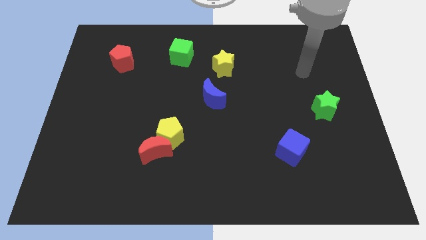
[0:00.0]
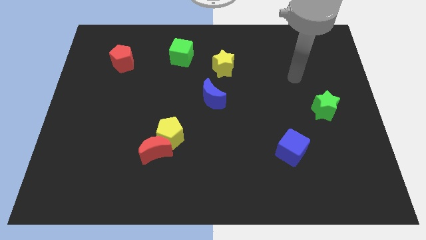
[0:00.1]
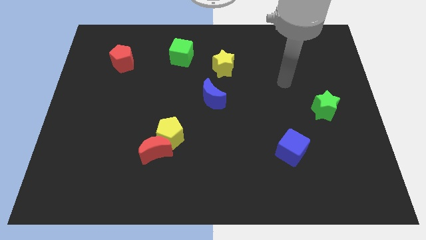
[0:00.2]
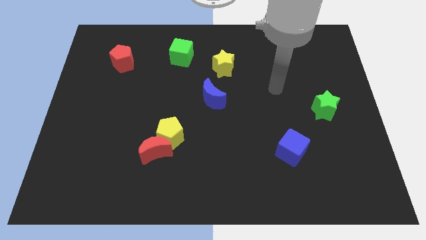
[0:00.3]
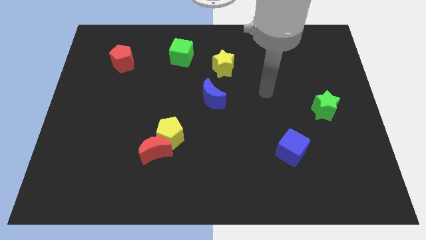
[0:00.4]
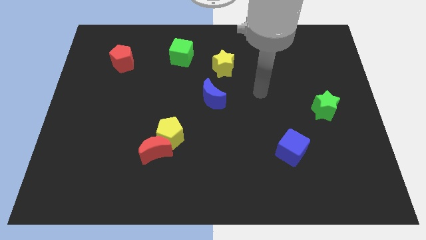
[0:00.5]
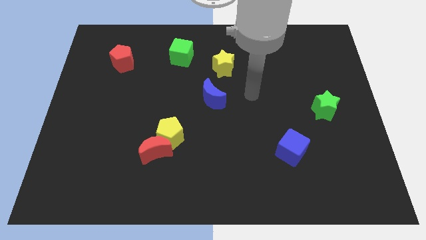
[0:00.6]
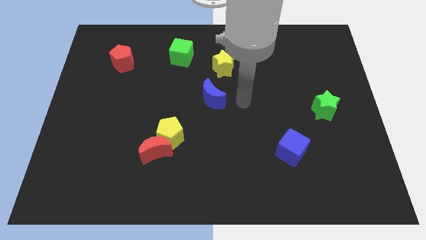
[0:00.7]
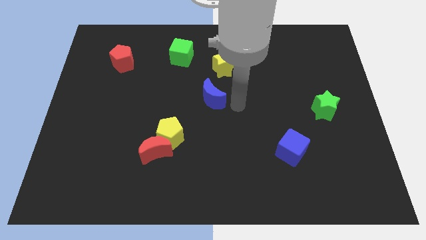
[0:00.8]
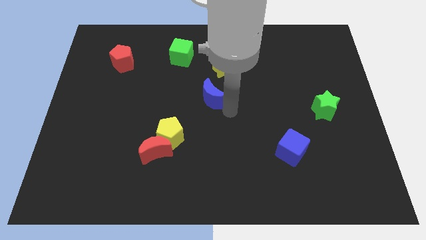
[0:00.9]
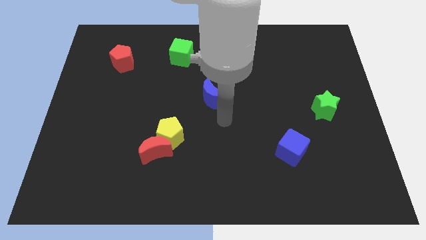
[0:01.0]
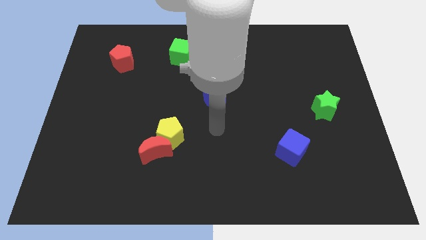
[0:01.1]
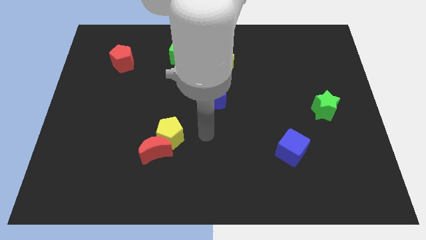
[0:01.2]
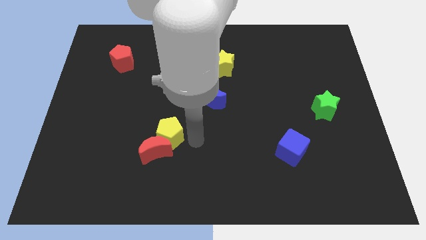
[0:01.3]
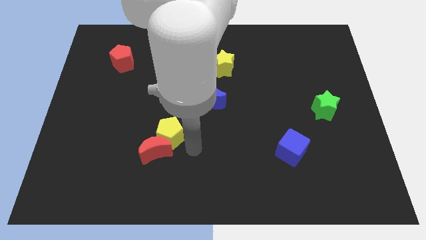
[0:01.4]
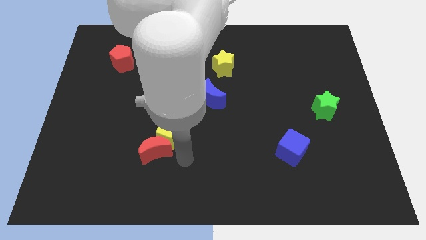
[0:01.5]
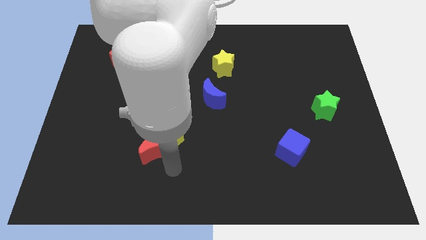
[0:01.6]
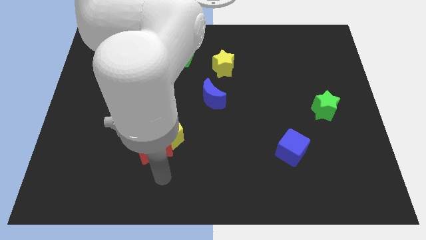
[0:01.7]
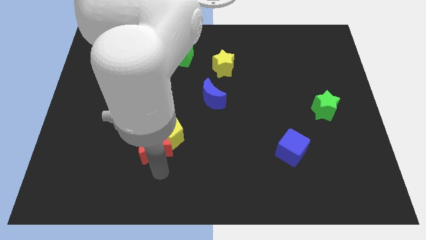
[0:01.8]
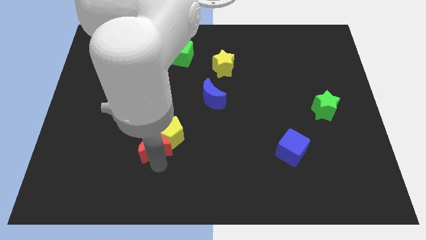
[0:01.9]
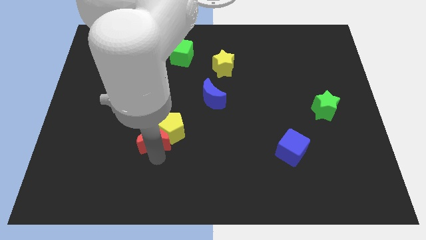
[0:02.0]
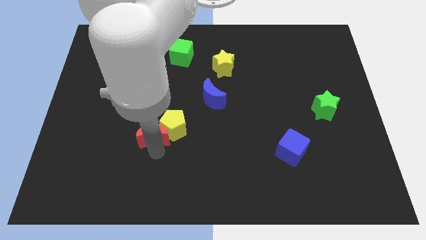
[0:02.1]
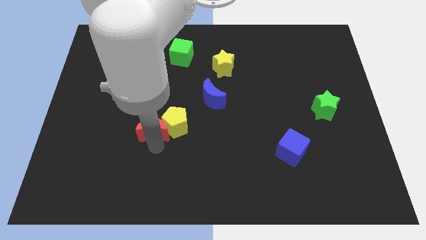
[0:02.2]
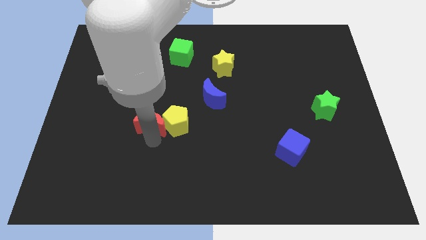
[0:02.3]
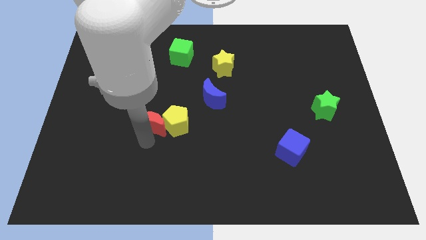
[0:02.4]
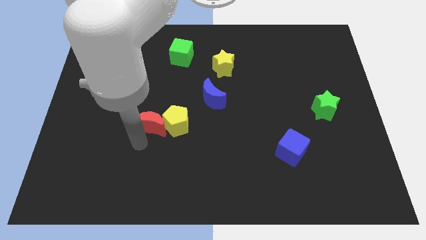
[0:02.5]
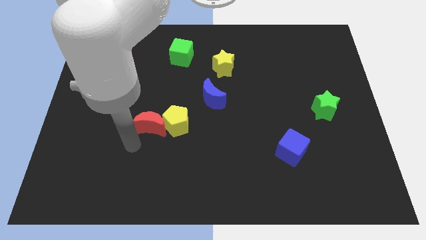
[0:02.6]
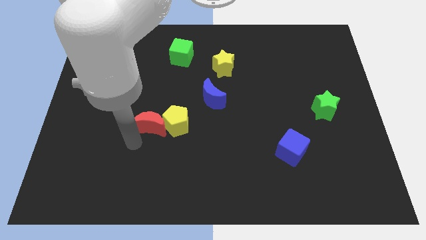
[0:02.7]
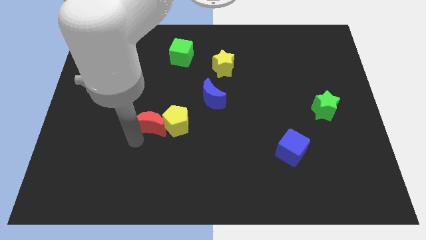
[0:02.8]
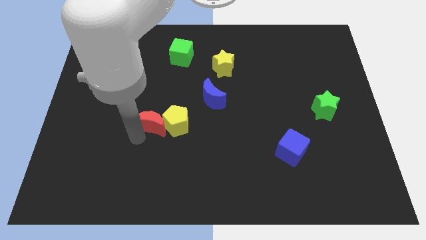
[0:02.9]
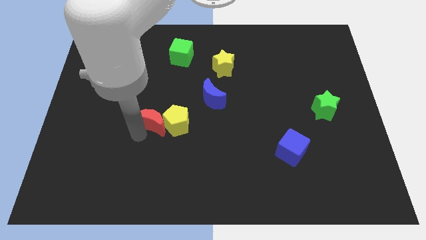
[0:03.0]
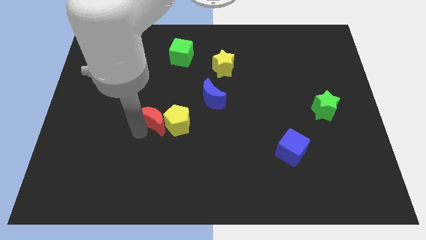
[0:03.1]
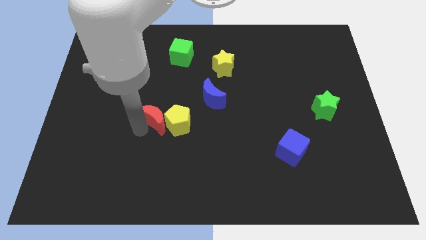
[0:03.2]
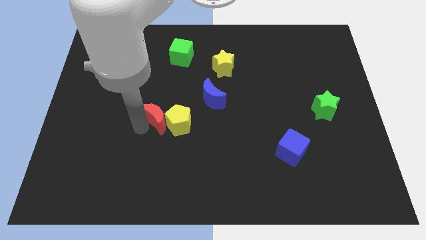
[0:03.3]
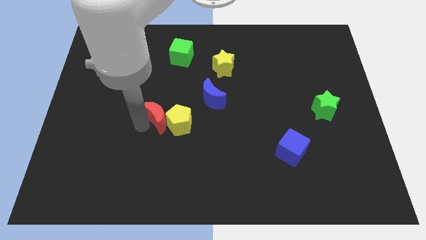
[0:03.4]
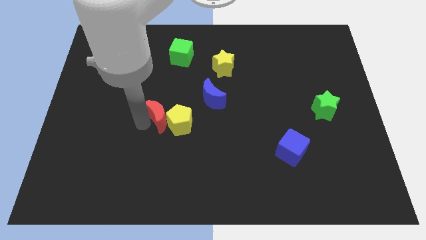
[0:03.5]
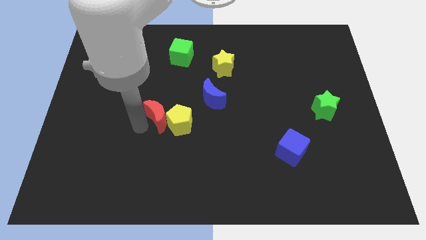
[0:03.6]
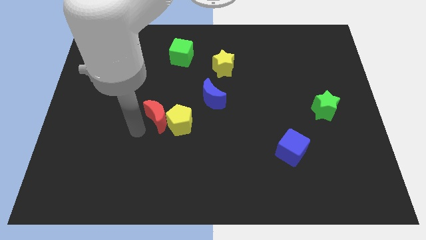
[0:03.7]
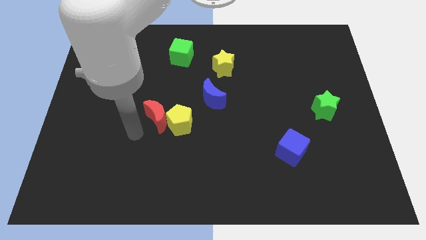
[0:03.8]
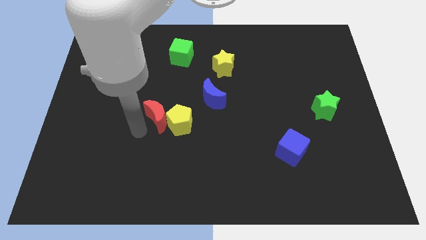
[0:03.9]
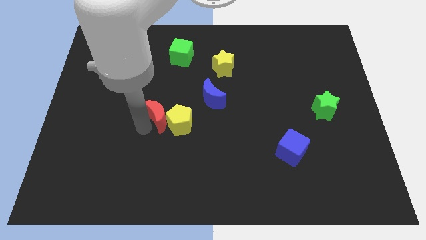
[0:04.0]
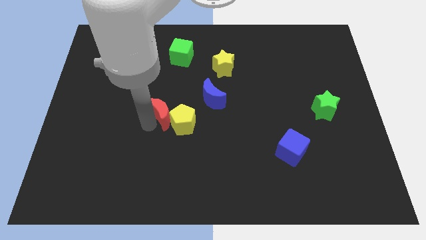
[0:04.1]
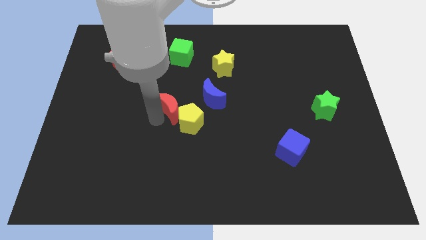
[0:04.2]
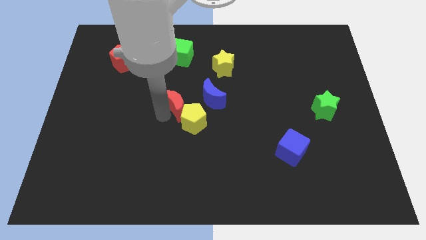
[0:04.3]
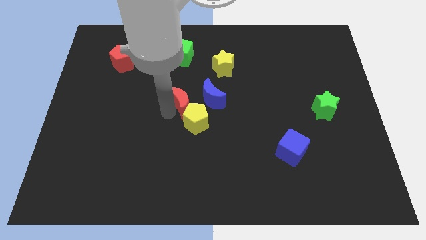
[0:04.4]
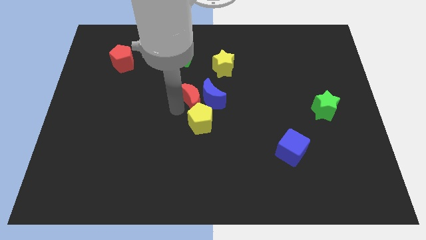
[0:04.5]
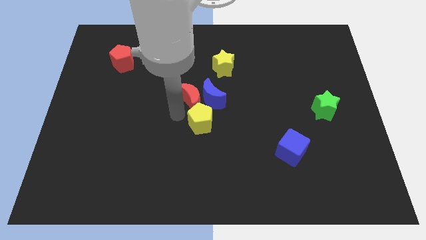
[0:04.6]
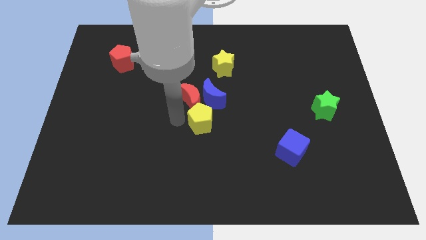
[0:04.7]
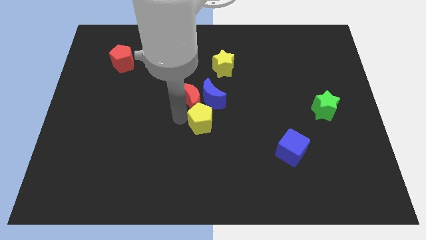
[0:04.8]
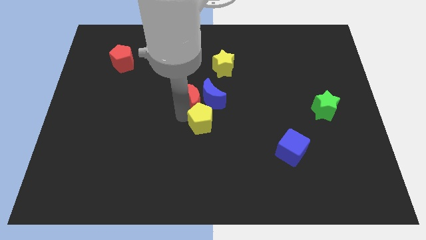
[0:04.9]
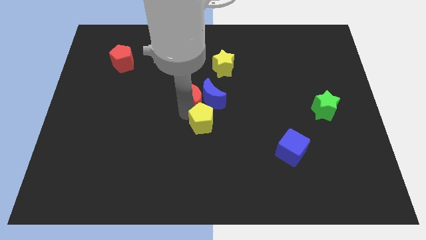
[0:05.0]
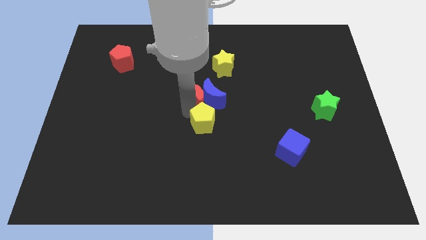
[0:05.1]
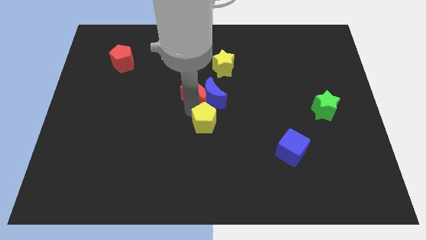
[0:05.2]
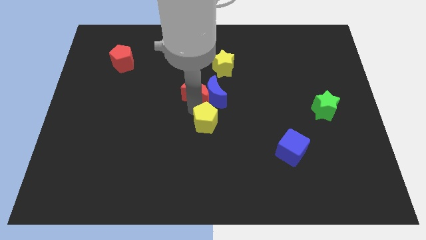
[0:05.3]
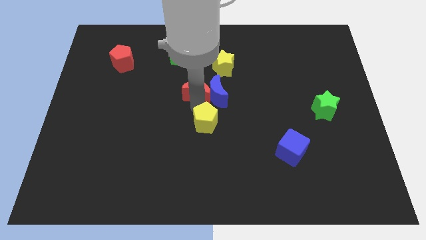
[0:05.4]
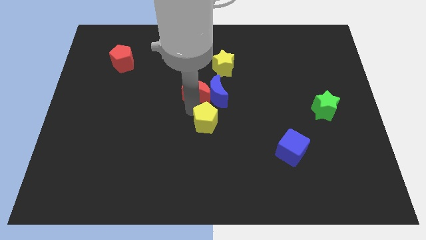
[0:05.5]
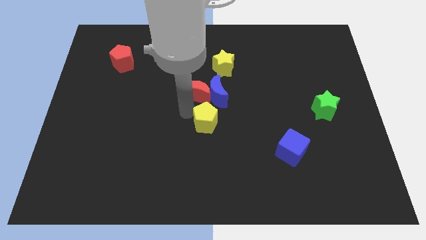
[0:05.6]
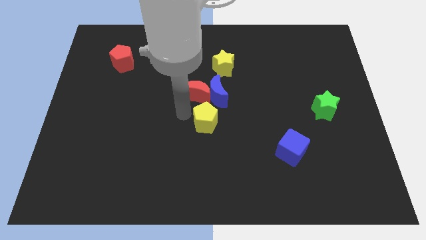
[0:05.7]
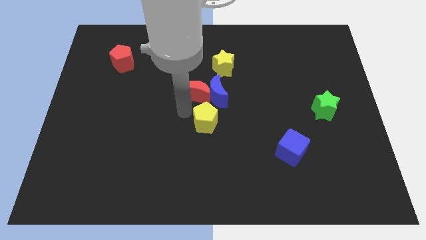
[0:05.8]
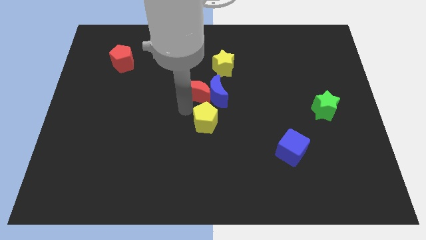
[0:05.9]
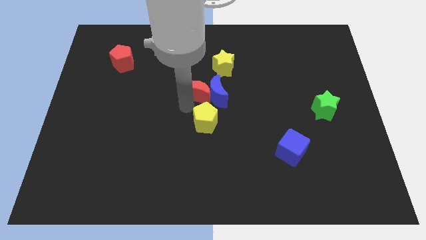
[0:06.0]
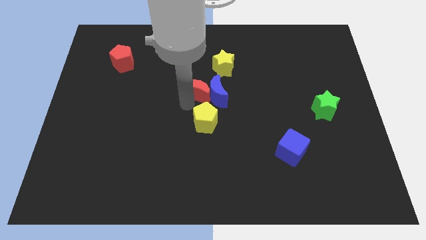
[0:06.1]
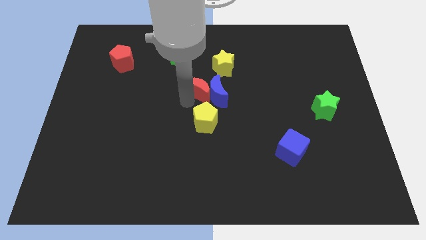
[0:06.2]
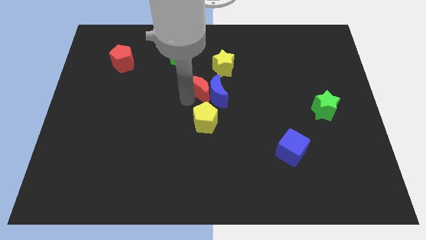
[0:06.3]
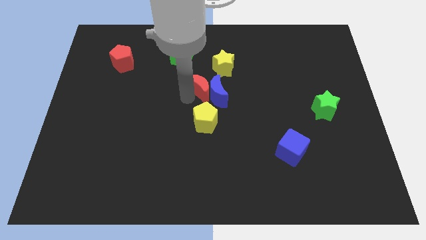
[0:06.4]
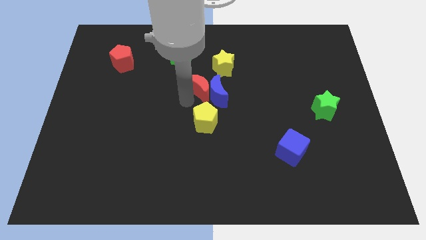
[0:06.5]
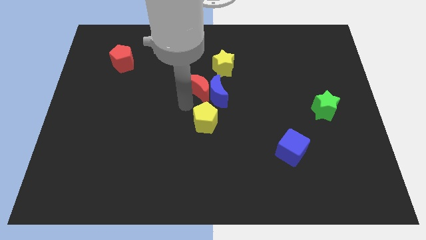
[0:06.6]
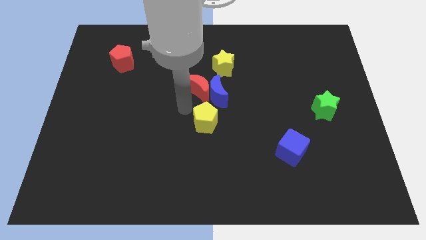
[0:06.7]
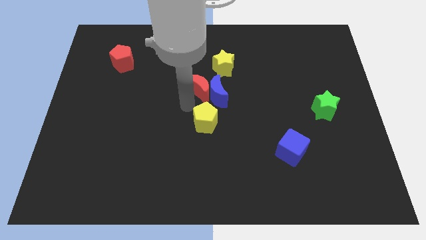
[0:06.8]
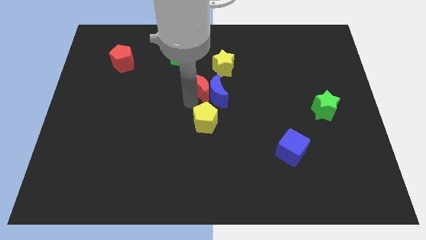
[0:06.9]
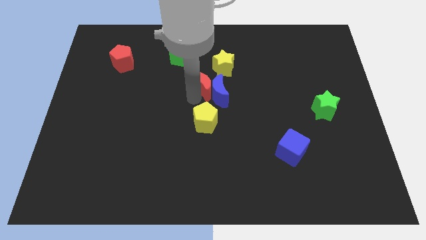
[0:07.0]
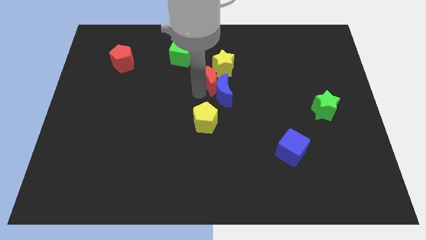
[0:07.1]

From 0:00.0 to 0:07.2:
push the red moon close to the yellow star

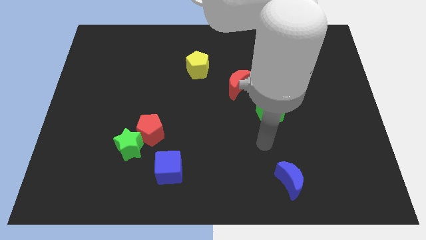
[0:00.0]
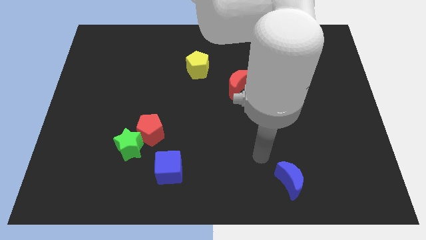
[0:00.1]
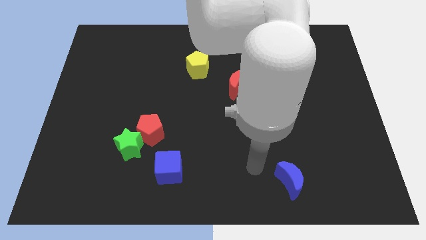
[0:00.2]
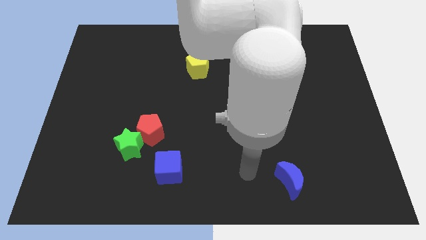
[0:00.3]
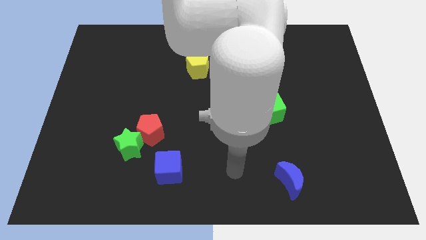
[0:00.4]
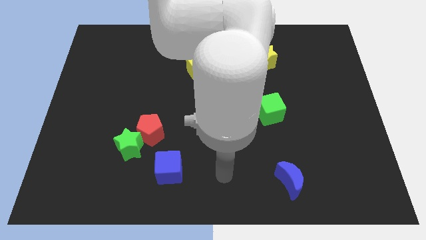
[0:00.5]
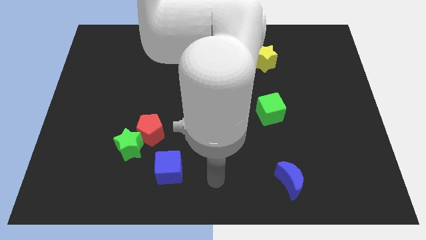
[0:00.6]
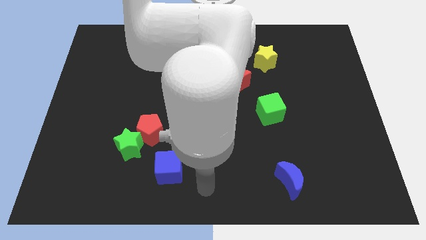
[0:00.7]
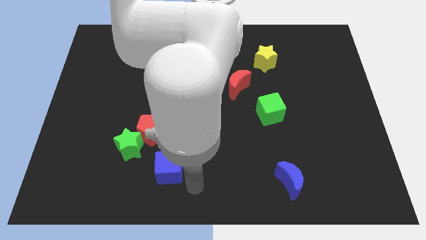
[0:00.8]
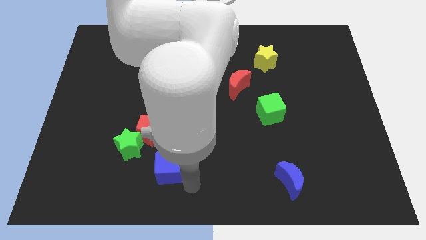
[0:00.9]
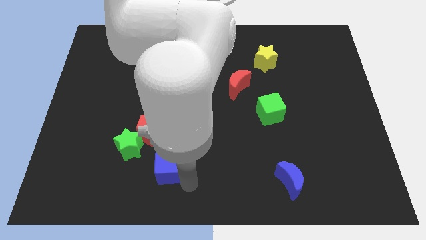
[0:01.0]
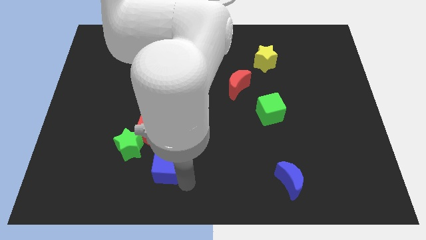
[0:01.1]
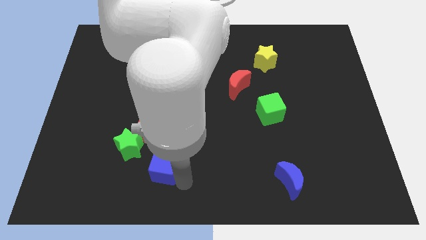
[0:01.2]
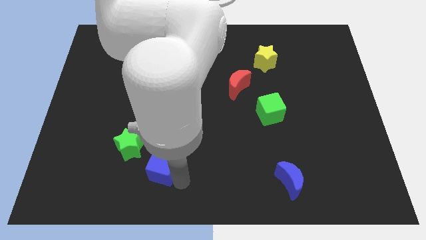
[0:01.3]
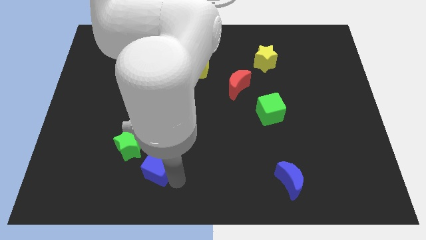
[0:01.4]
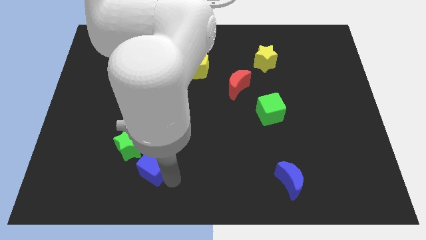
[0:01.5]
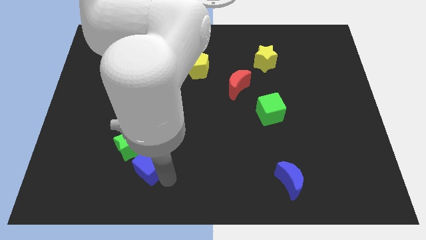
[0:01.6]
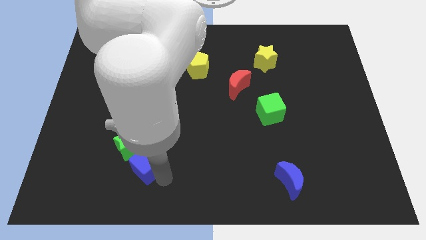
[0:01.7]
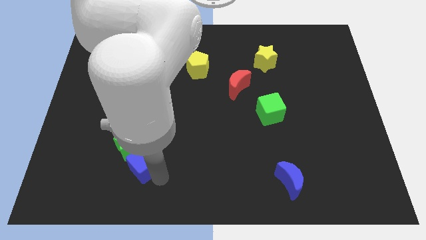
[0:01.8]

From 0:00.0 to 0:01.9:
put the blue cube next to the green star
